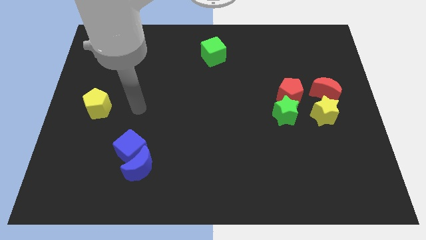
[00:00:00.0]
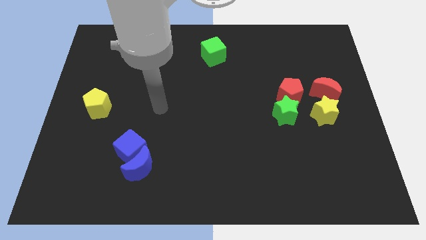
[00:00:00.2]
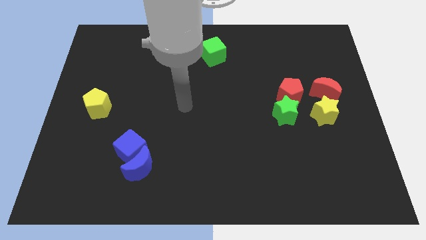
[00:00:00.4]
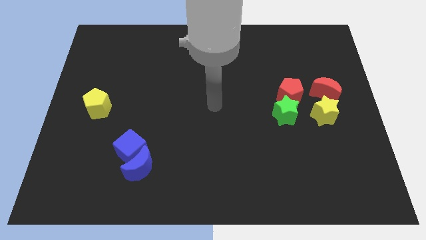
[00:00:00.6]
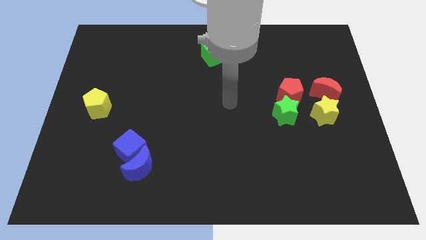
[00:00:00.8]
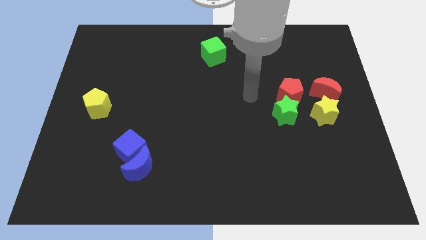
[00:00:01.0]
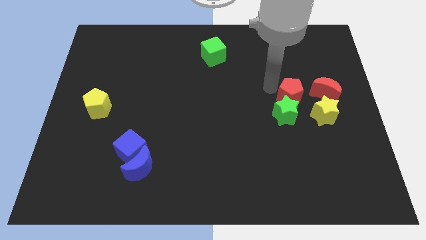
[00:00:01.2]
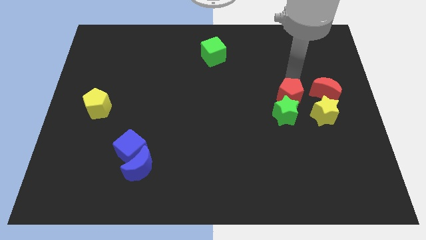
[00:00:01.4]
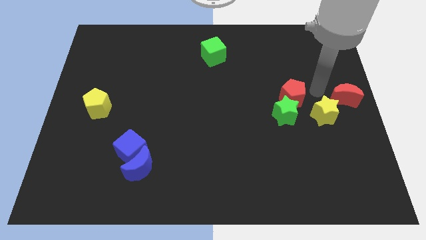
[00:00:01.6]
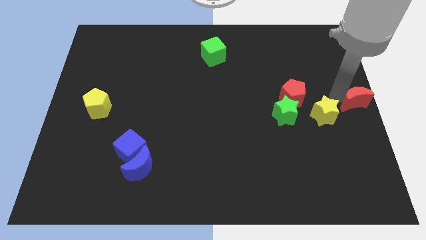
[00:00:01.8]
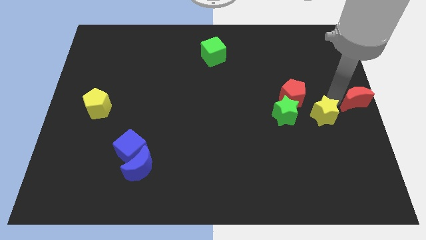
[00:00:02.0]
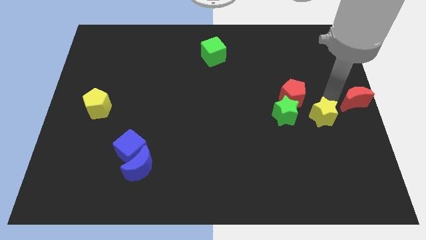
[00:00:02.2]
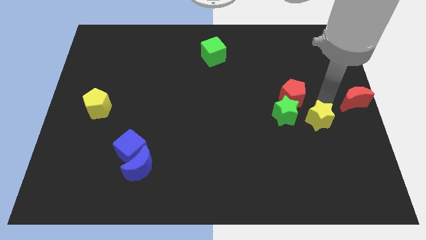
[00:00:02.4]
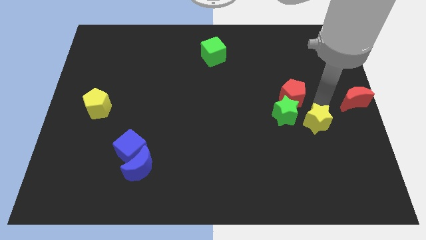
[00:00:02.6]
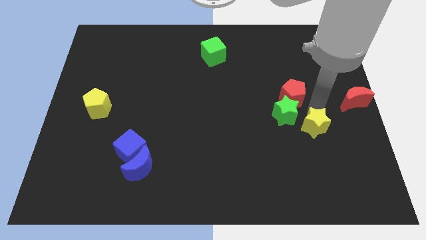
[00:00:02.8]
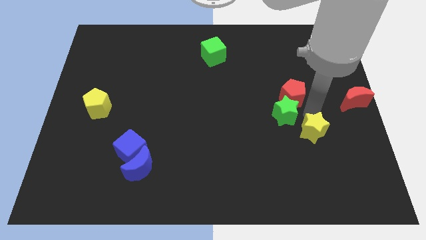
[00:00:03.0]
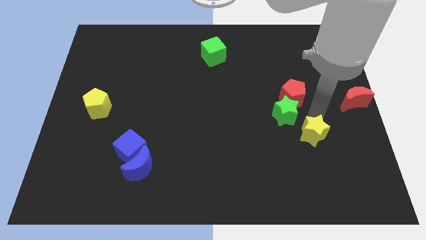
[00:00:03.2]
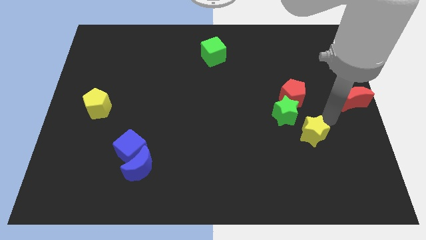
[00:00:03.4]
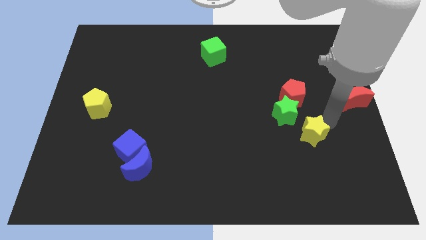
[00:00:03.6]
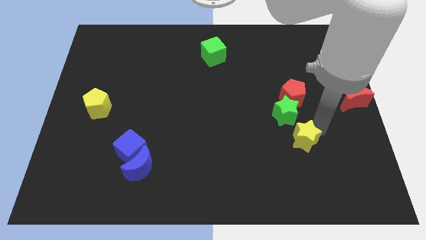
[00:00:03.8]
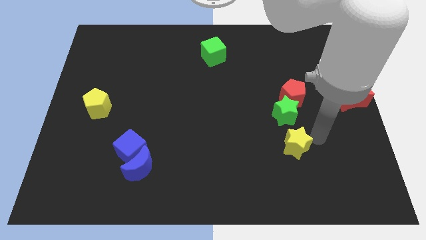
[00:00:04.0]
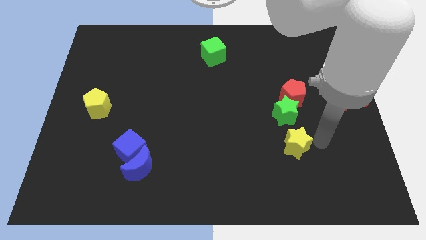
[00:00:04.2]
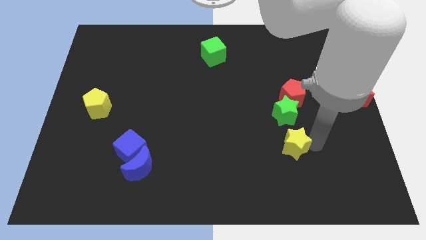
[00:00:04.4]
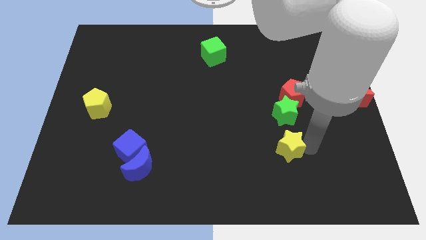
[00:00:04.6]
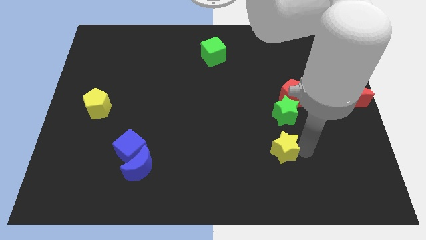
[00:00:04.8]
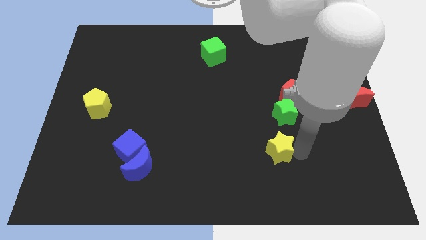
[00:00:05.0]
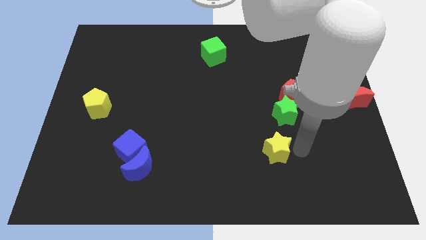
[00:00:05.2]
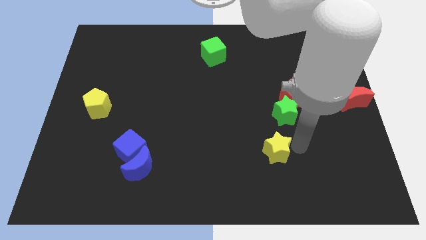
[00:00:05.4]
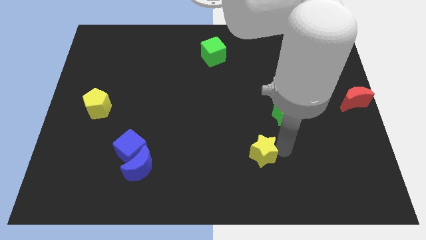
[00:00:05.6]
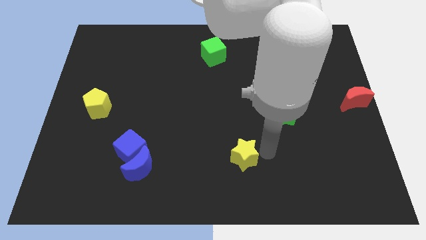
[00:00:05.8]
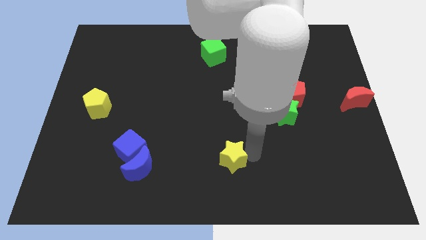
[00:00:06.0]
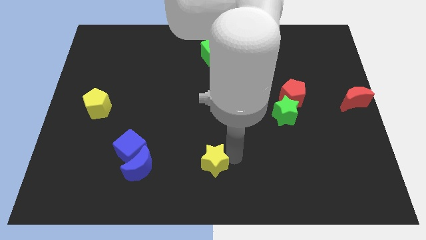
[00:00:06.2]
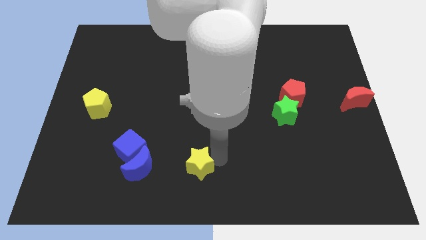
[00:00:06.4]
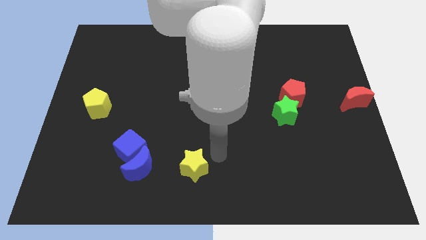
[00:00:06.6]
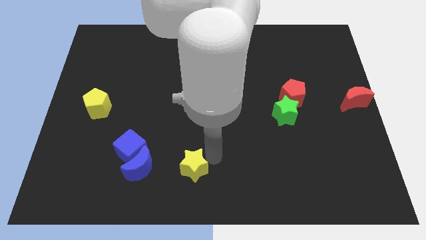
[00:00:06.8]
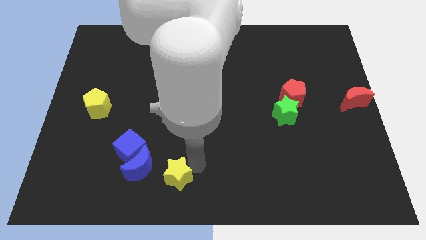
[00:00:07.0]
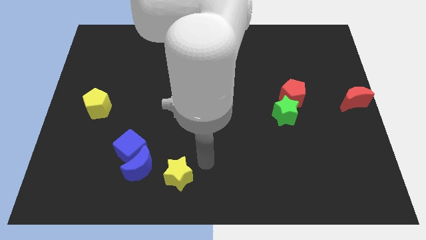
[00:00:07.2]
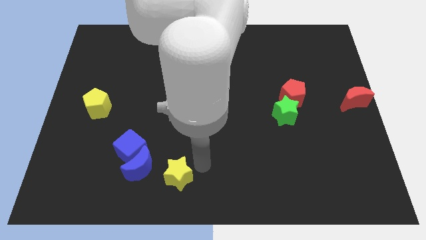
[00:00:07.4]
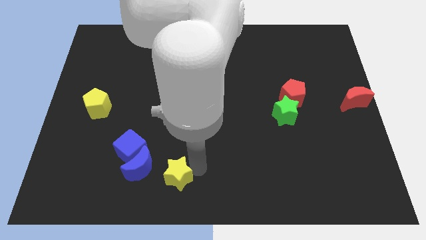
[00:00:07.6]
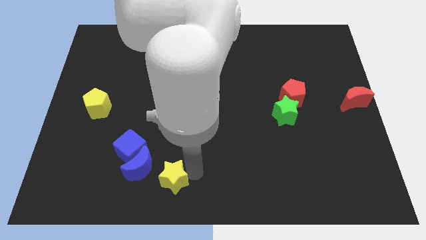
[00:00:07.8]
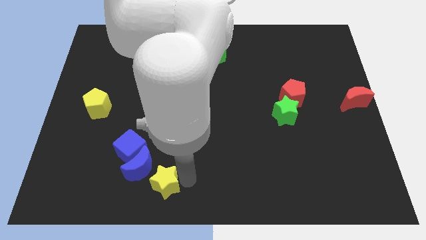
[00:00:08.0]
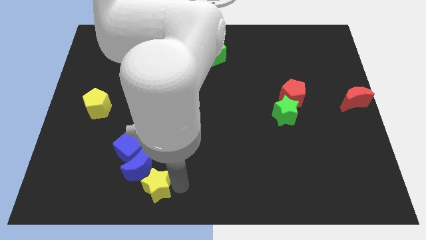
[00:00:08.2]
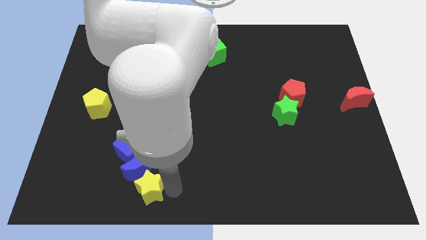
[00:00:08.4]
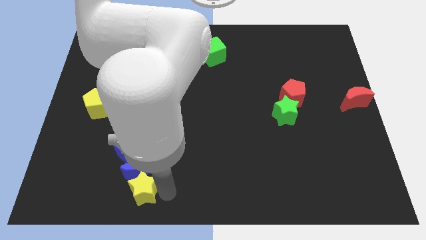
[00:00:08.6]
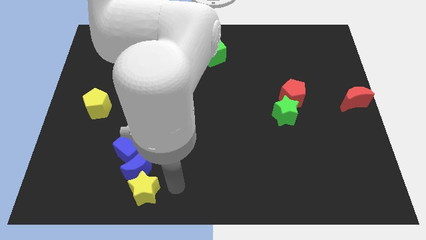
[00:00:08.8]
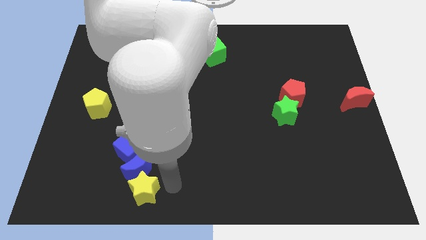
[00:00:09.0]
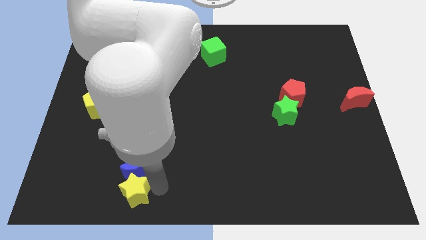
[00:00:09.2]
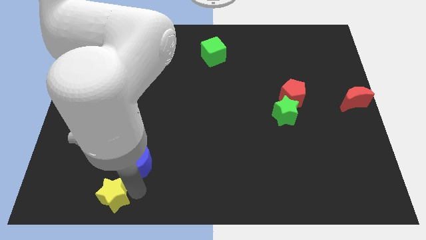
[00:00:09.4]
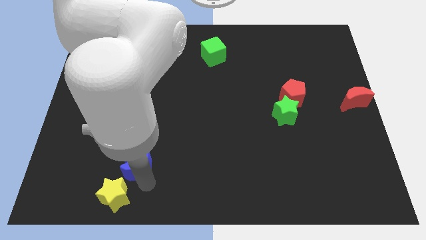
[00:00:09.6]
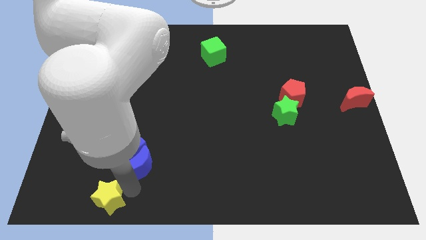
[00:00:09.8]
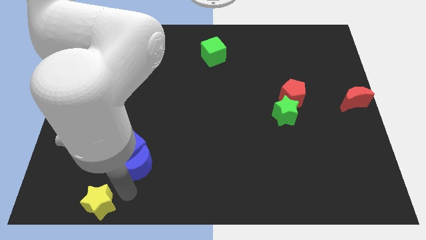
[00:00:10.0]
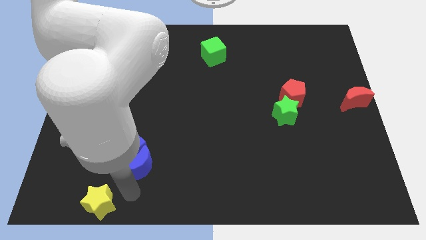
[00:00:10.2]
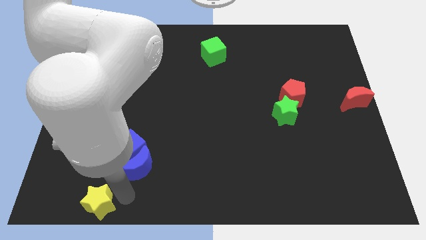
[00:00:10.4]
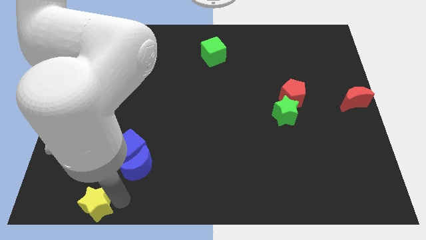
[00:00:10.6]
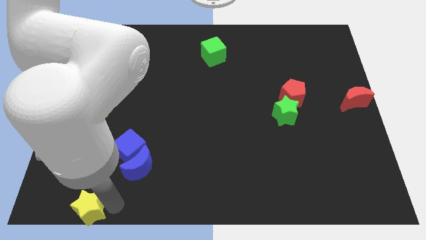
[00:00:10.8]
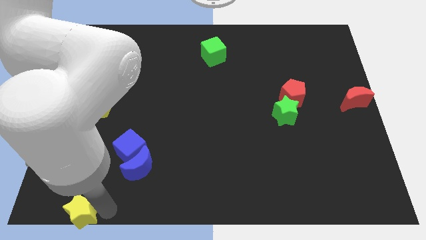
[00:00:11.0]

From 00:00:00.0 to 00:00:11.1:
put the yellow star to the bottom left corner

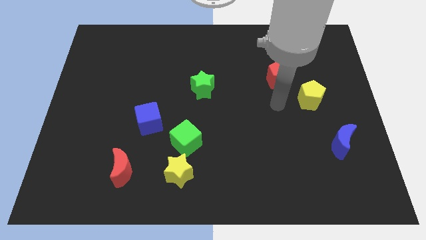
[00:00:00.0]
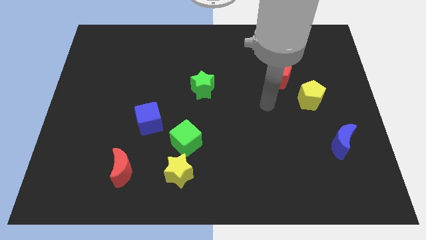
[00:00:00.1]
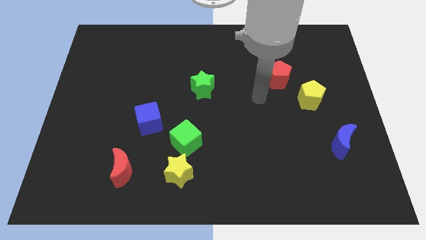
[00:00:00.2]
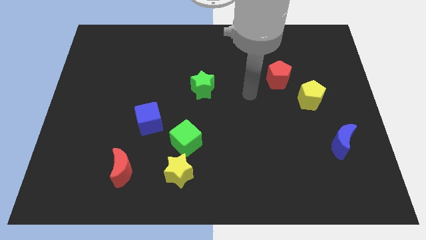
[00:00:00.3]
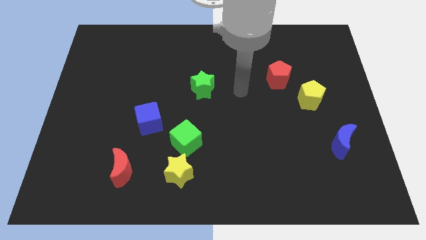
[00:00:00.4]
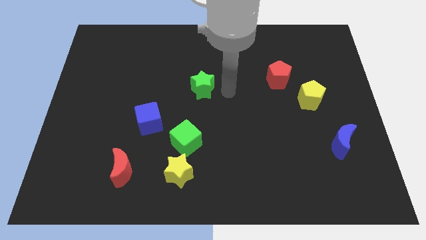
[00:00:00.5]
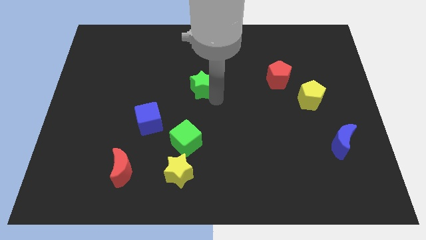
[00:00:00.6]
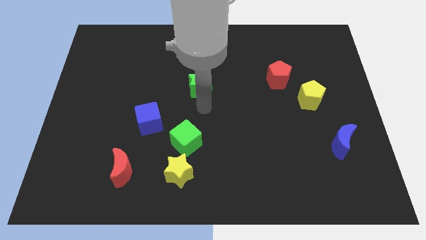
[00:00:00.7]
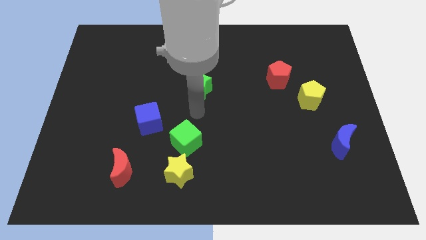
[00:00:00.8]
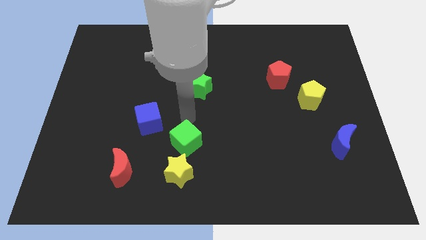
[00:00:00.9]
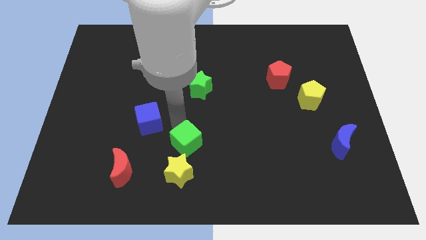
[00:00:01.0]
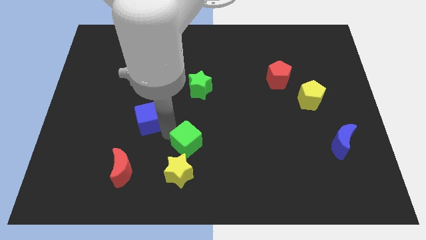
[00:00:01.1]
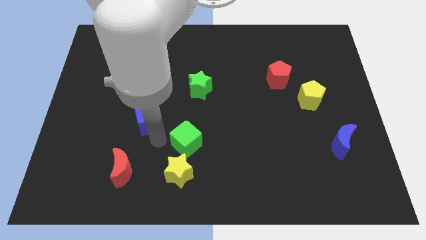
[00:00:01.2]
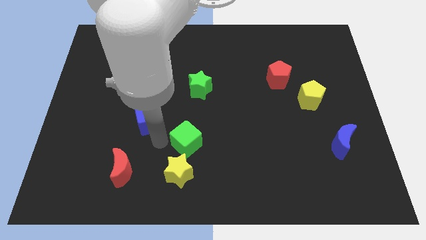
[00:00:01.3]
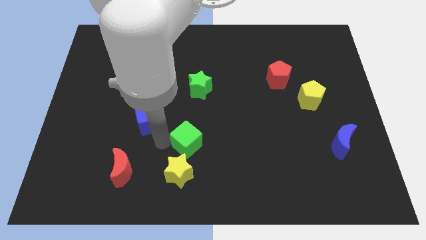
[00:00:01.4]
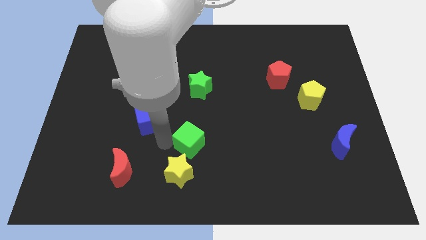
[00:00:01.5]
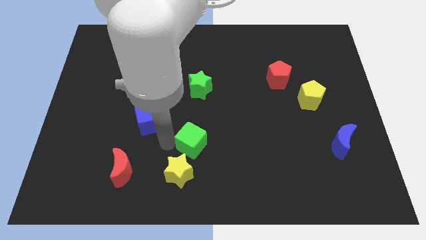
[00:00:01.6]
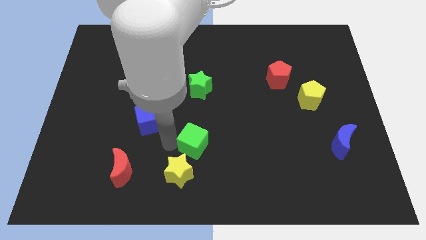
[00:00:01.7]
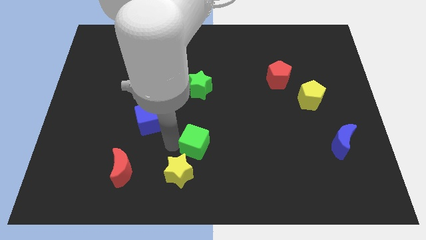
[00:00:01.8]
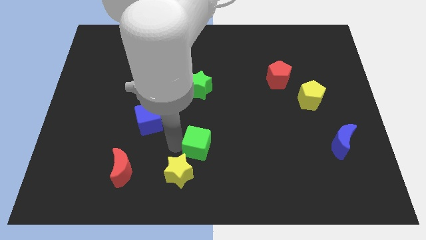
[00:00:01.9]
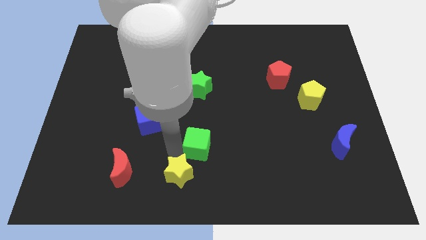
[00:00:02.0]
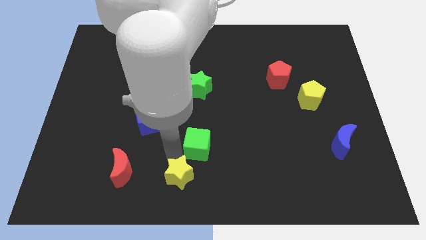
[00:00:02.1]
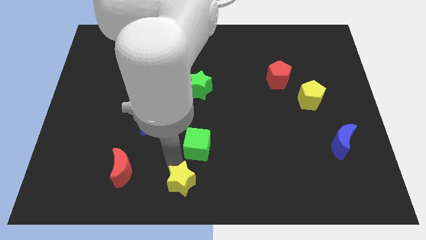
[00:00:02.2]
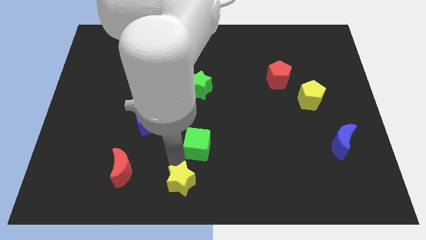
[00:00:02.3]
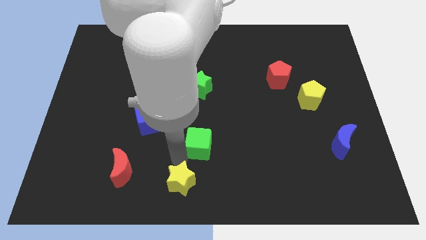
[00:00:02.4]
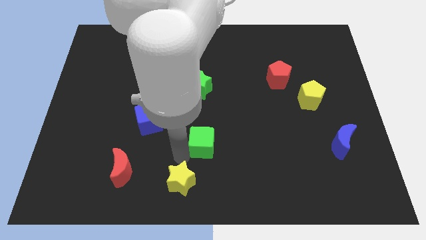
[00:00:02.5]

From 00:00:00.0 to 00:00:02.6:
put the green cube to the center
